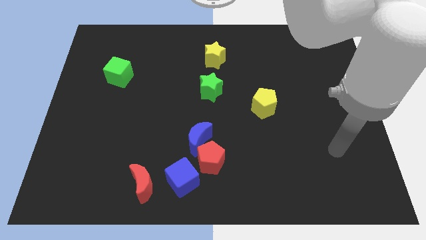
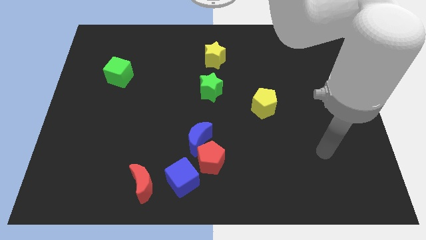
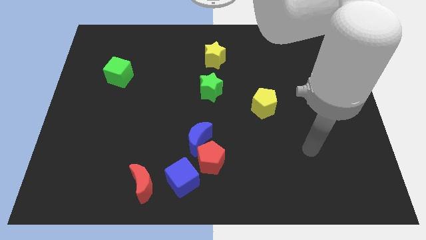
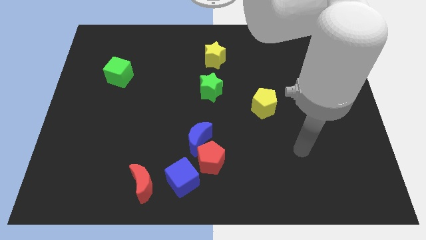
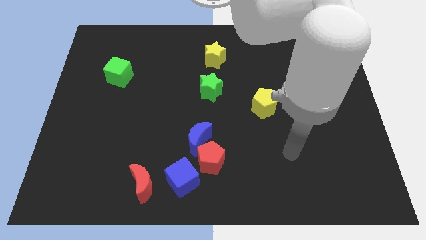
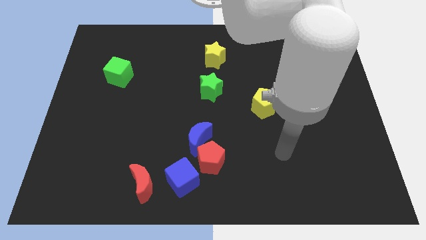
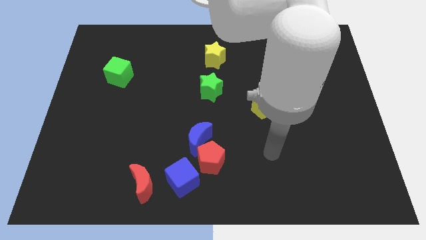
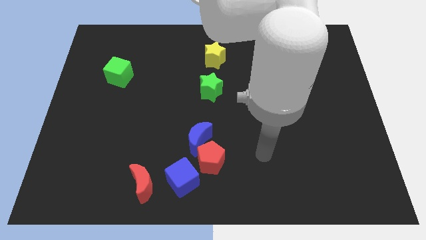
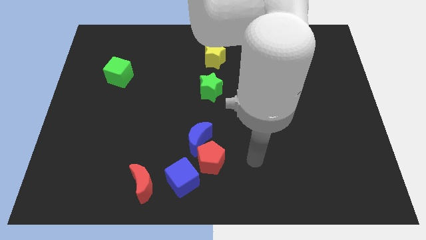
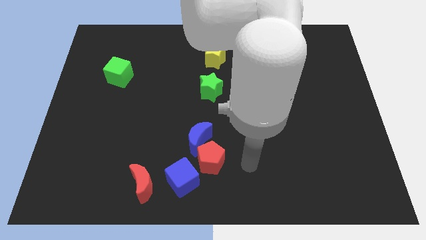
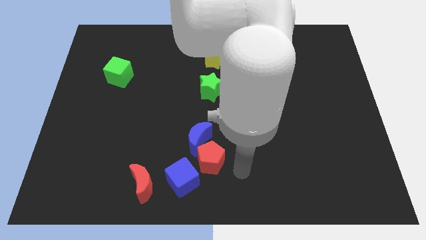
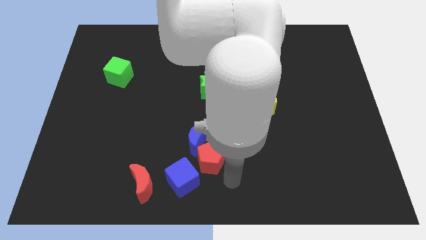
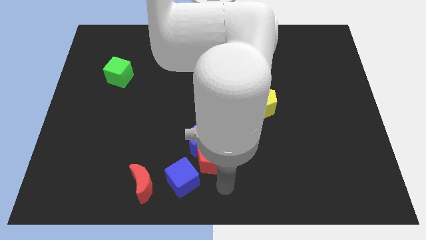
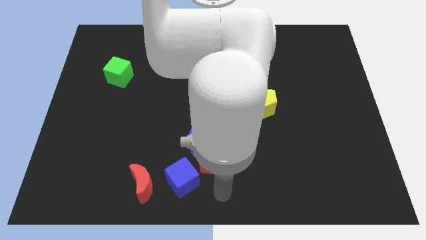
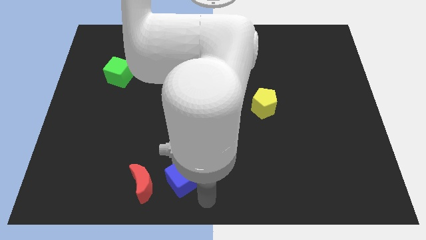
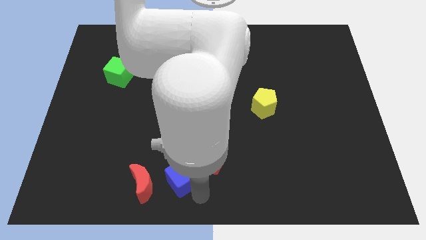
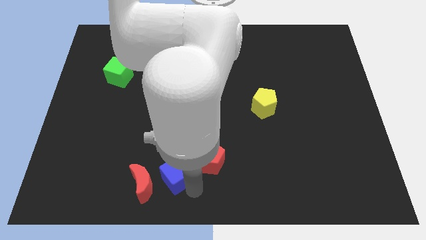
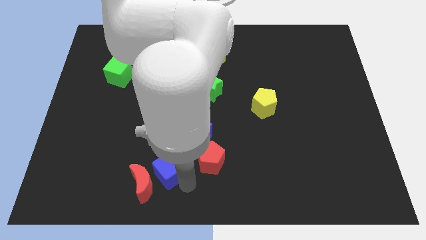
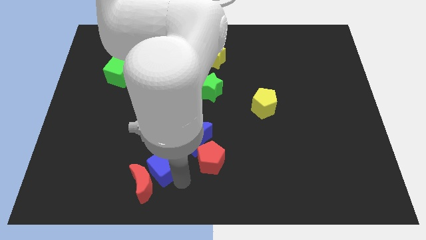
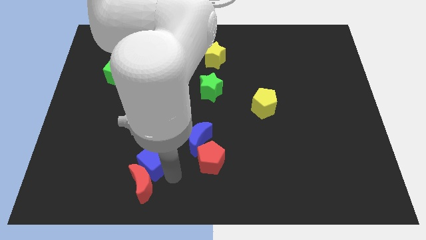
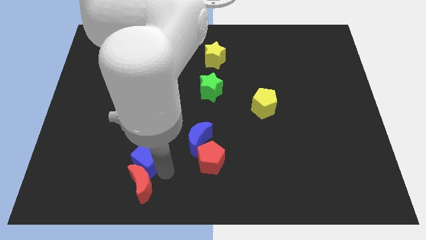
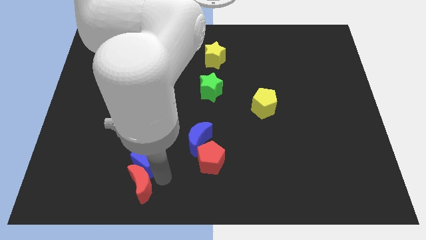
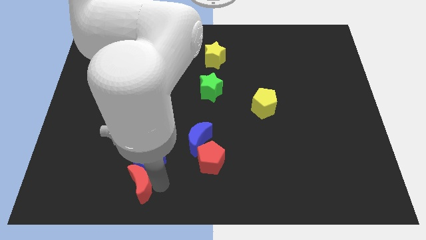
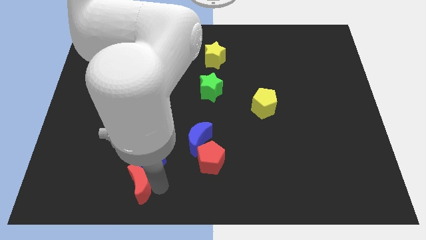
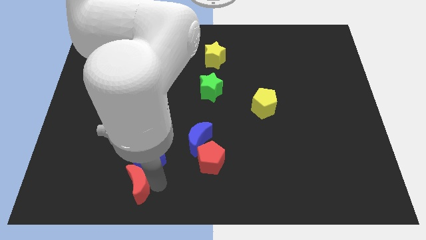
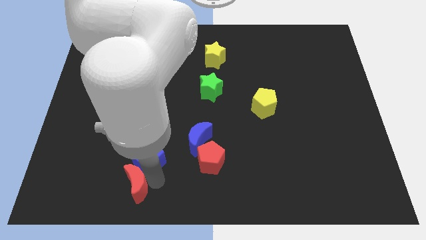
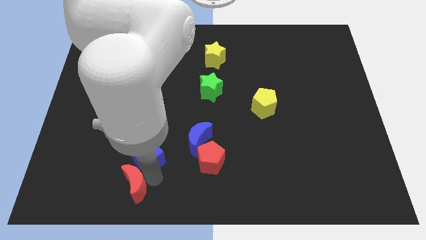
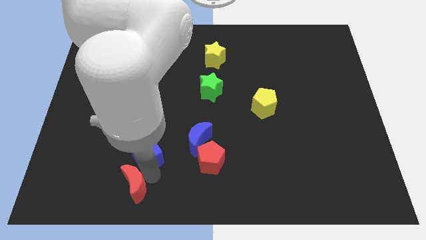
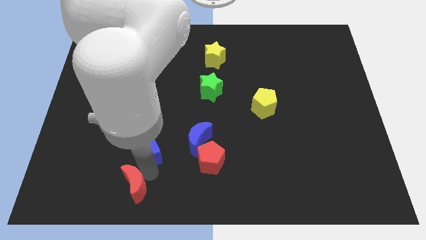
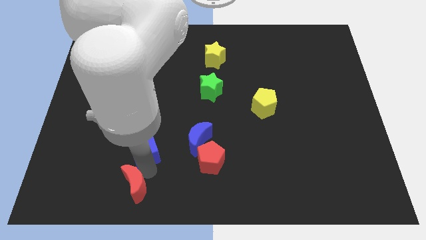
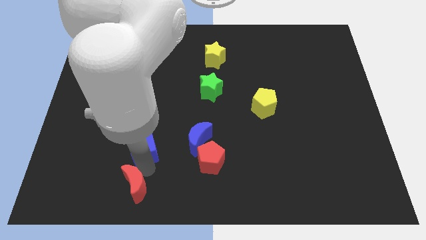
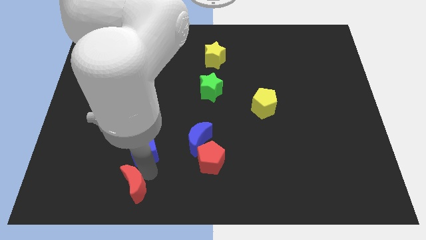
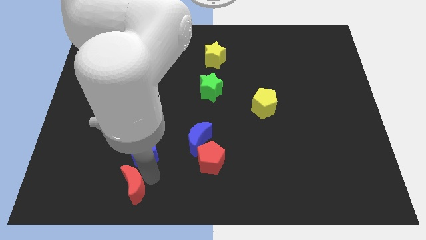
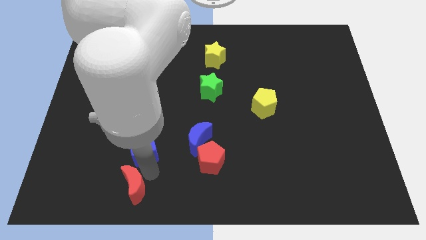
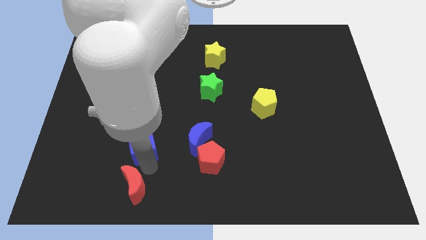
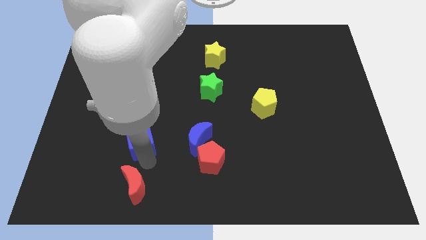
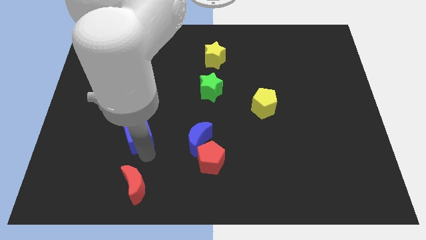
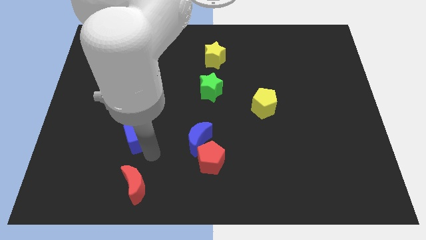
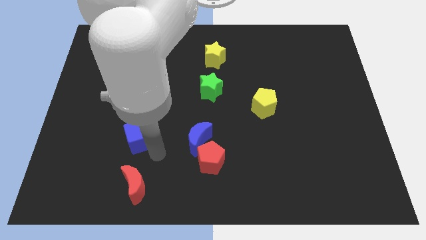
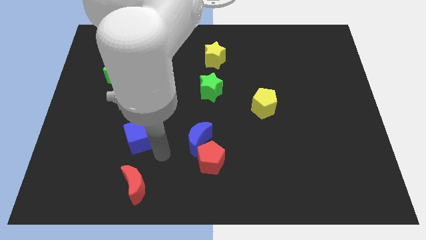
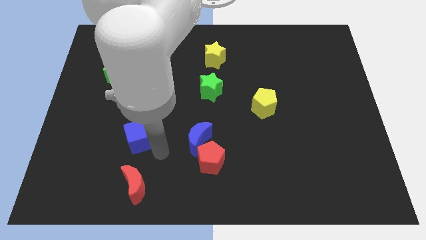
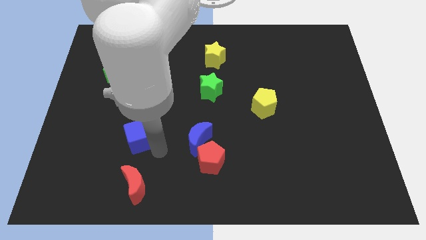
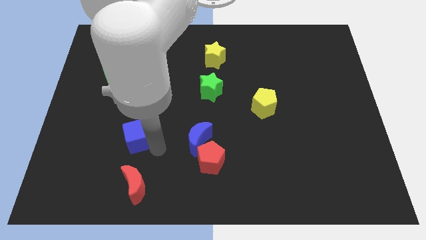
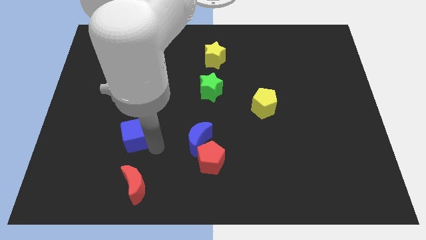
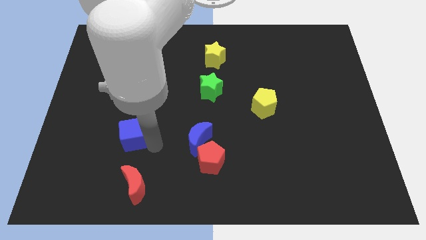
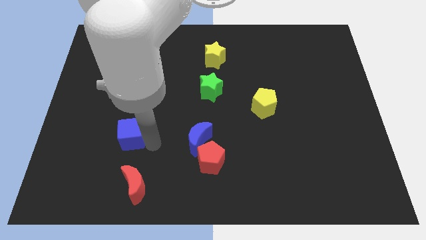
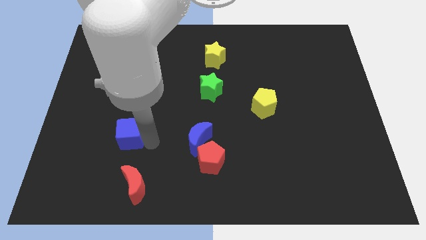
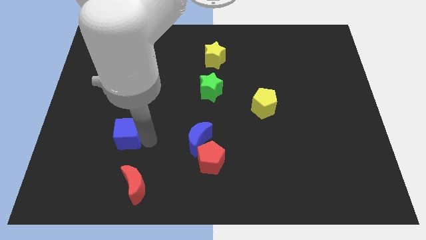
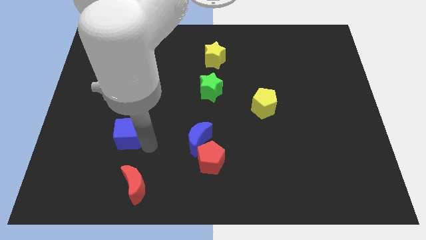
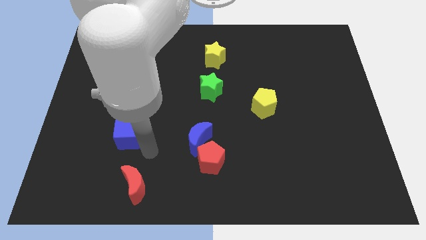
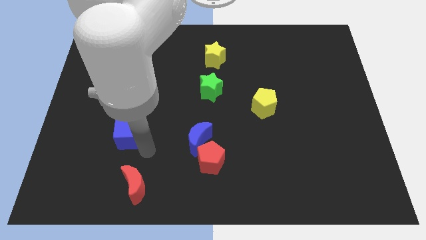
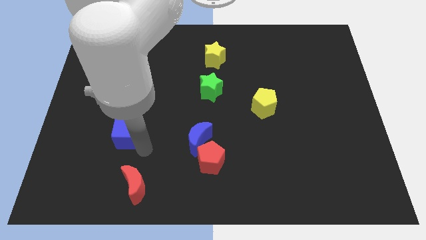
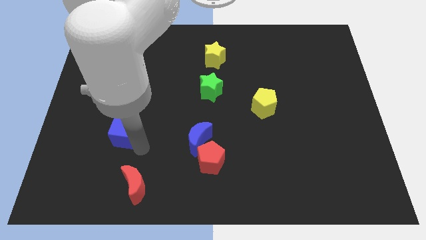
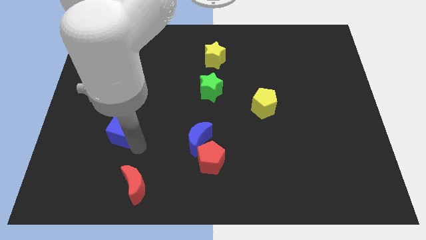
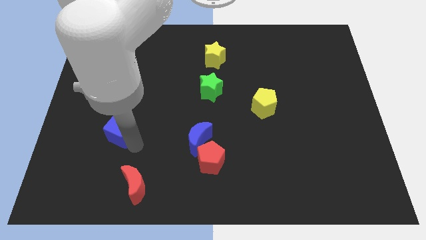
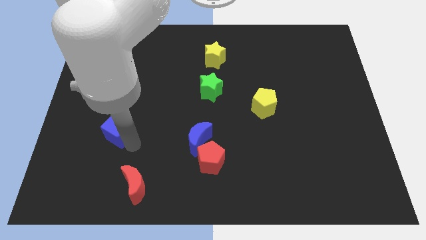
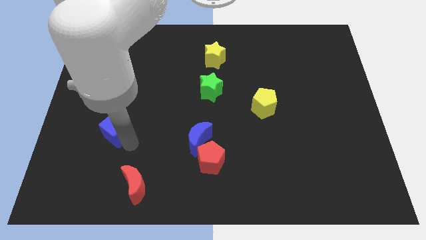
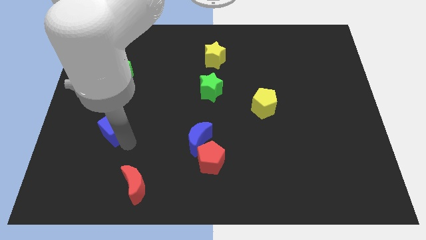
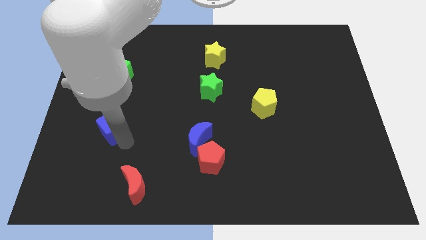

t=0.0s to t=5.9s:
slide the blue cube up and then left

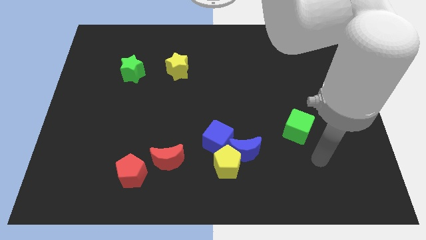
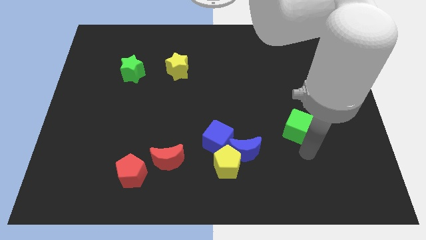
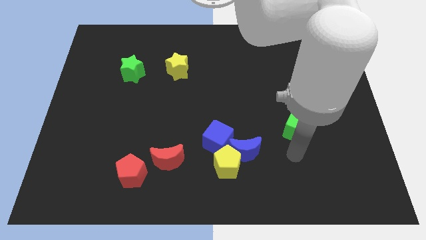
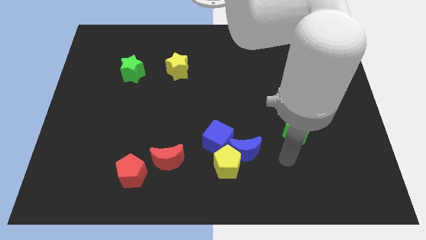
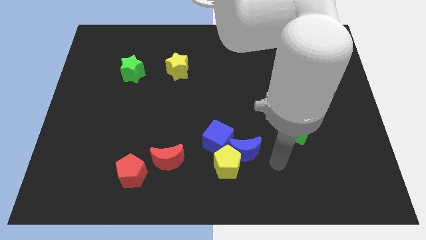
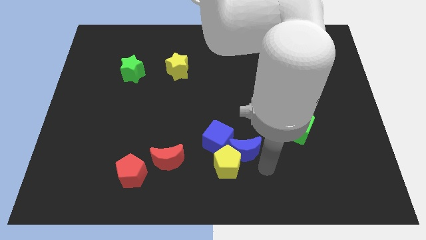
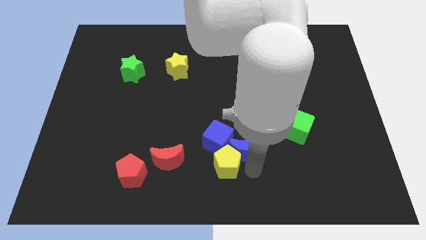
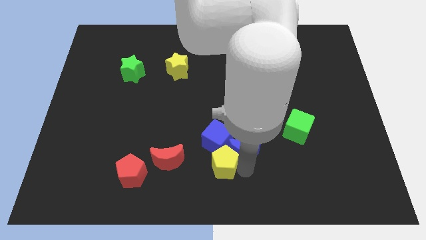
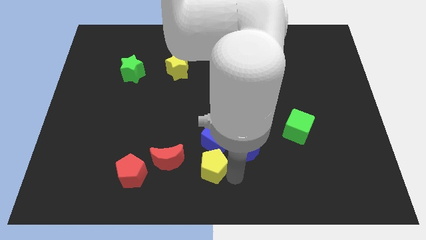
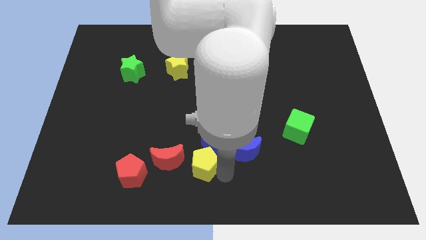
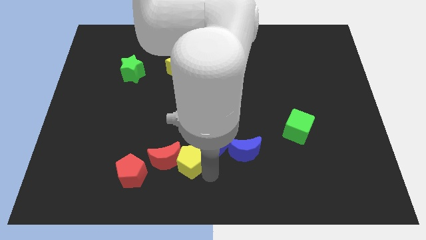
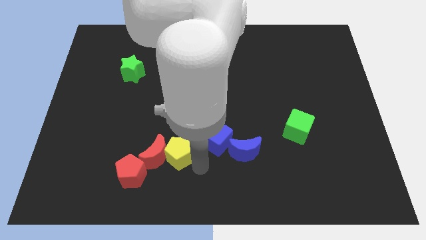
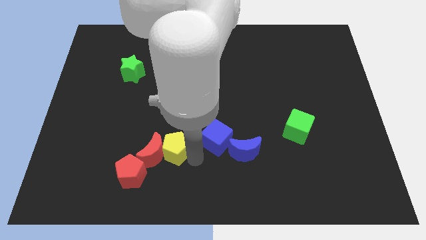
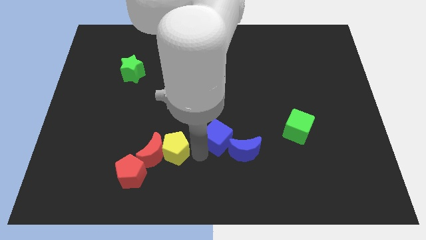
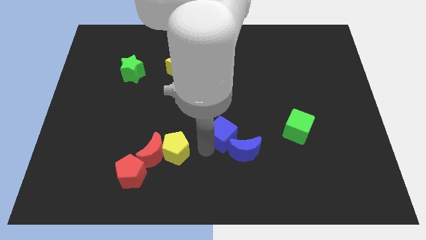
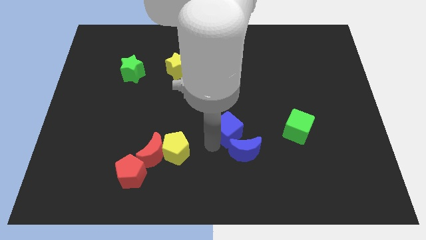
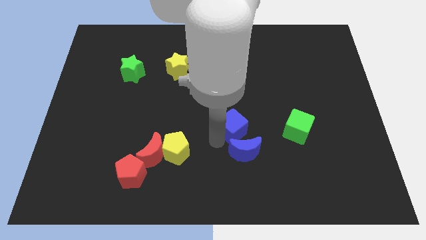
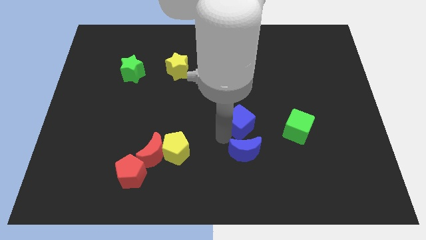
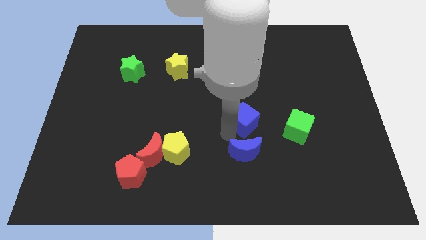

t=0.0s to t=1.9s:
move the blue cube somewhat upwards and right
